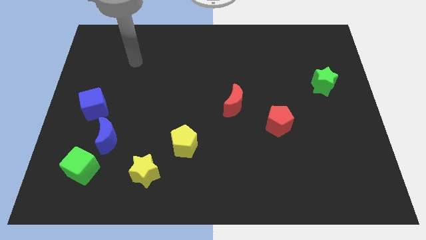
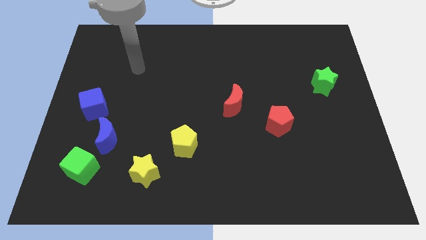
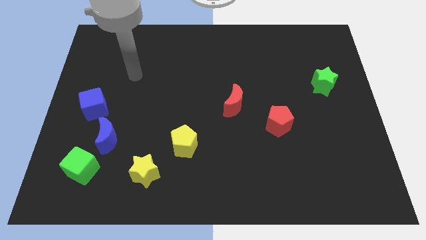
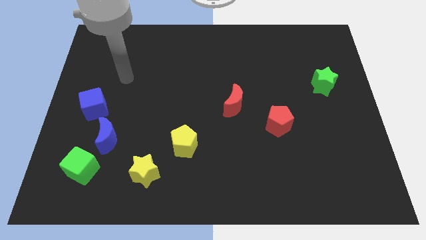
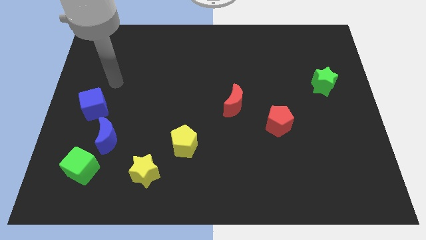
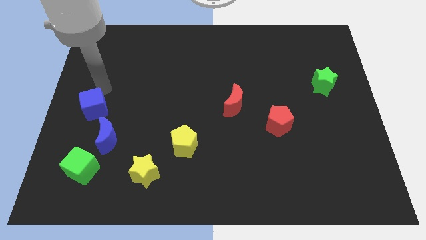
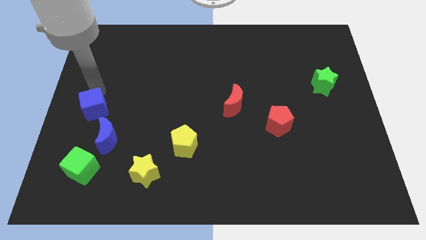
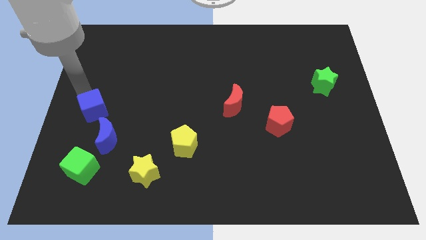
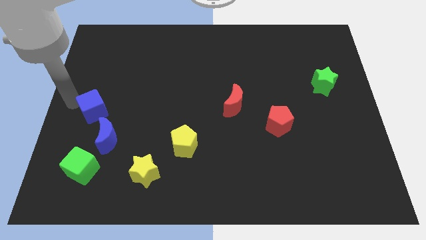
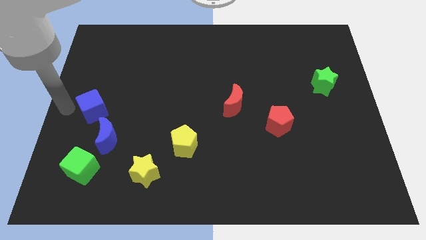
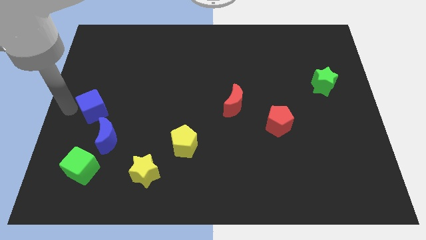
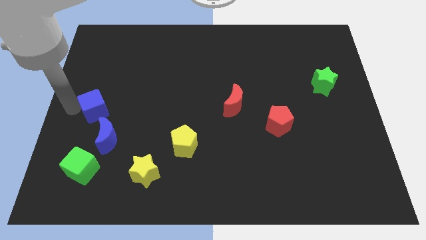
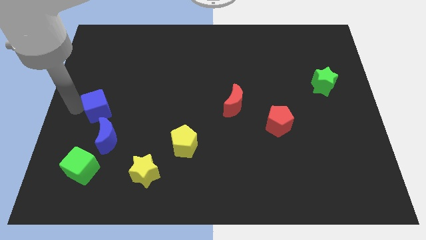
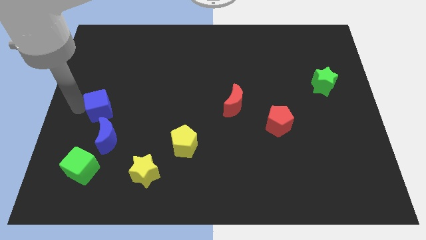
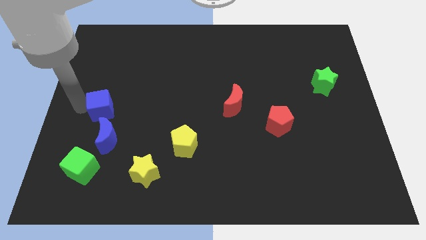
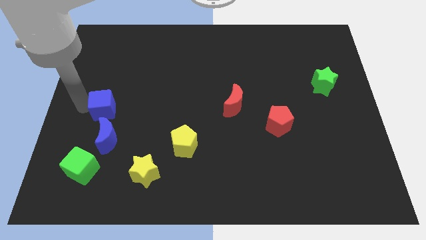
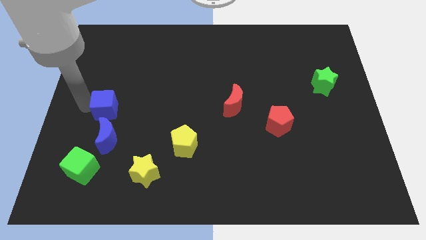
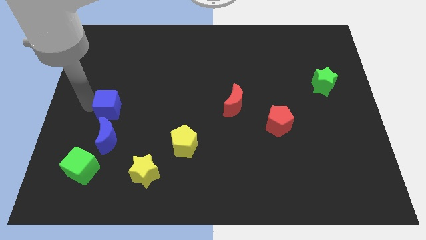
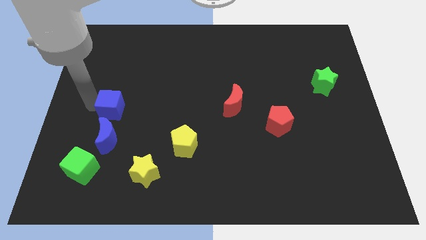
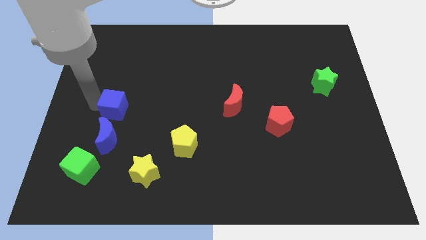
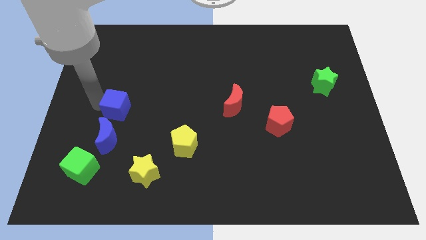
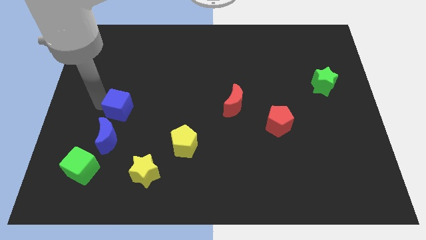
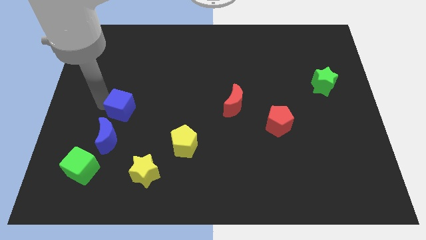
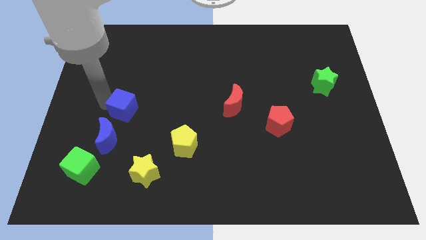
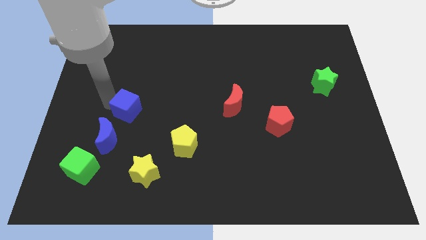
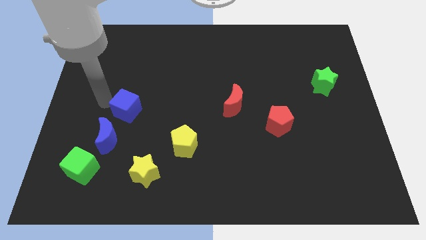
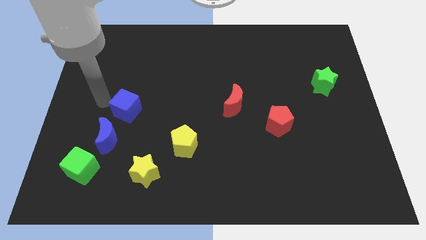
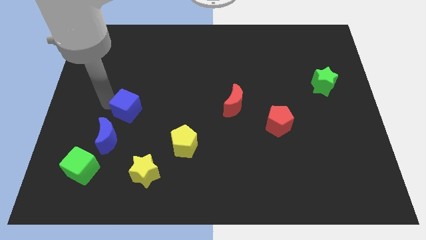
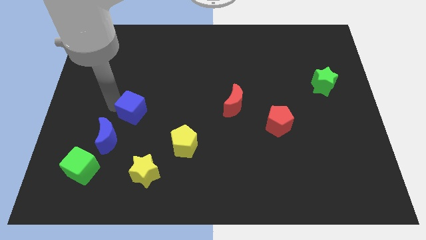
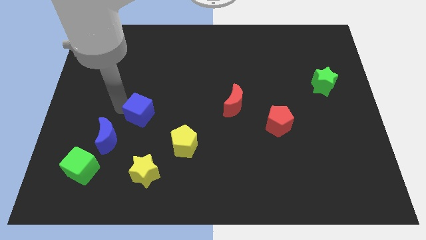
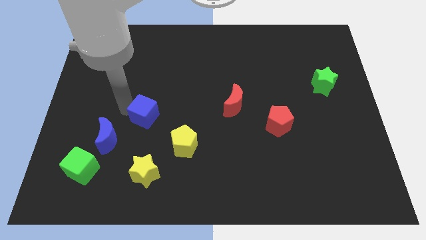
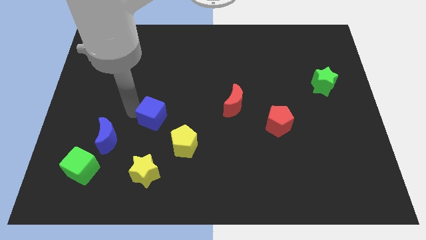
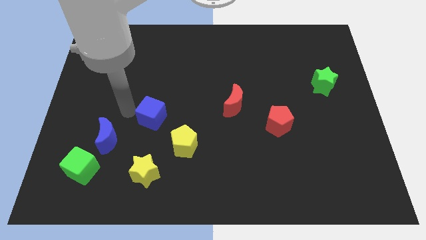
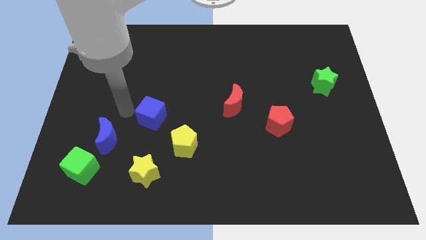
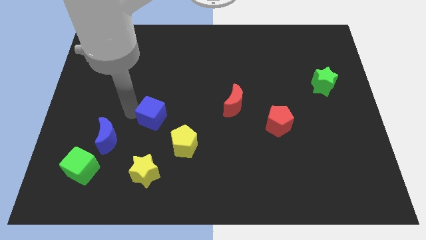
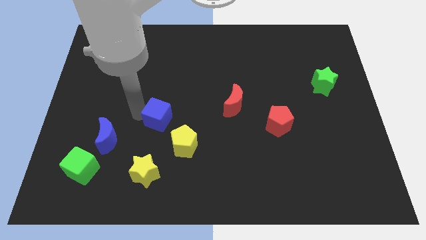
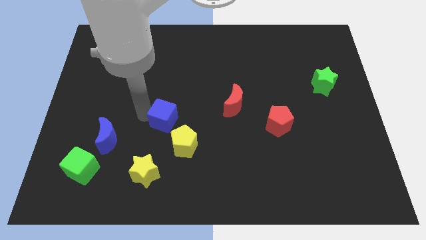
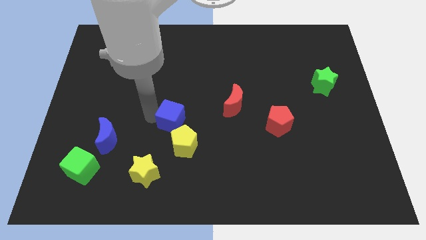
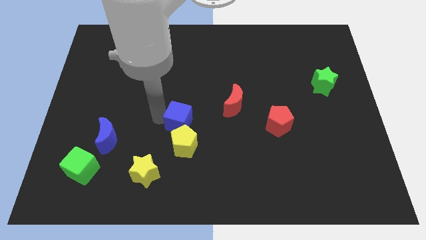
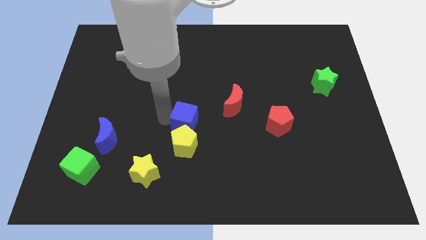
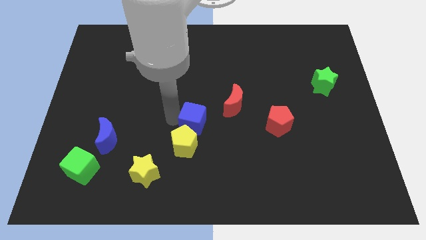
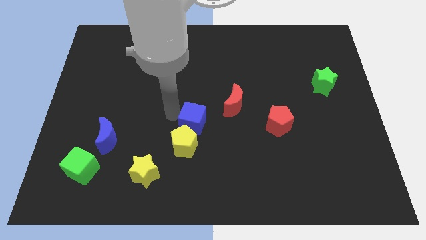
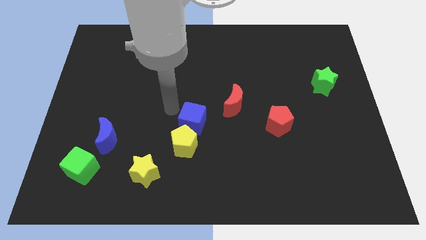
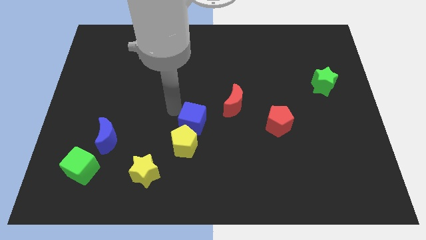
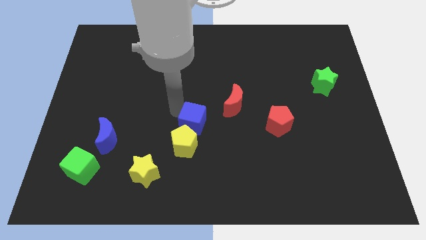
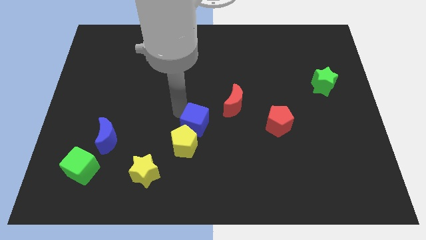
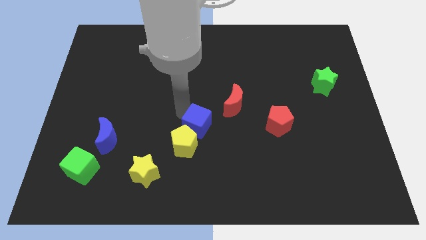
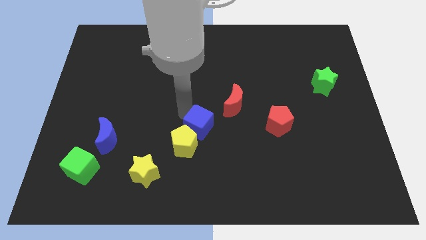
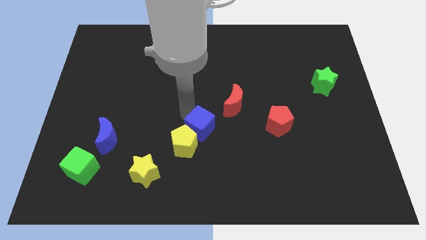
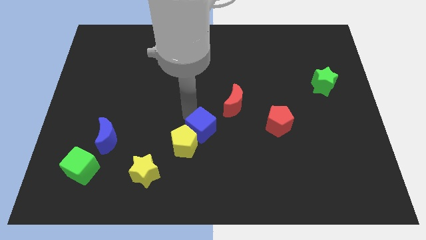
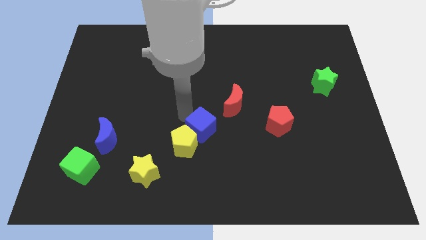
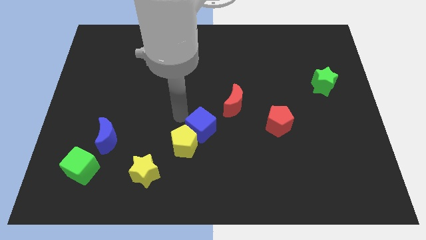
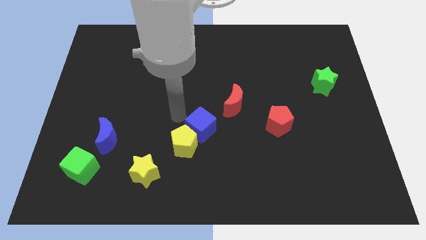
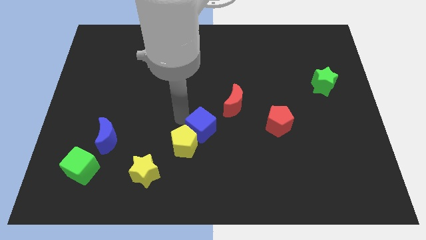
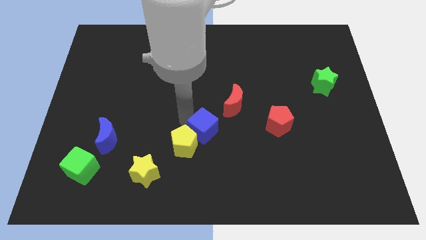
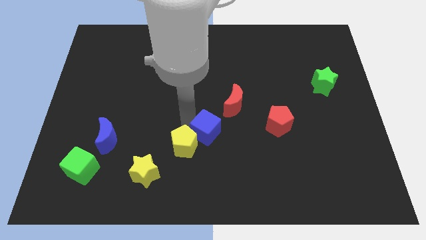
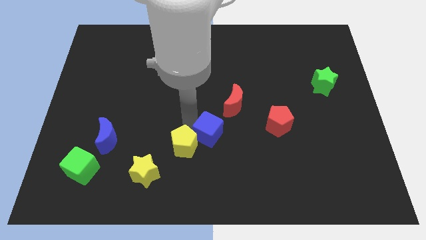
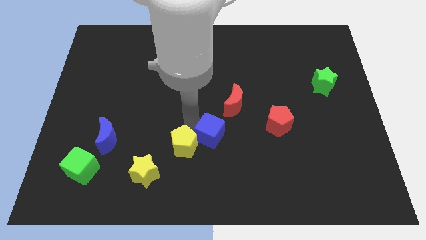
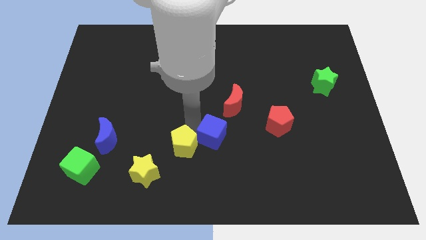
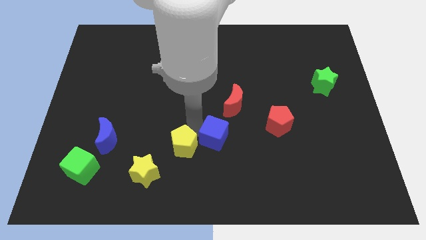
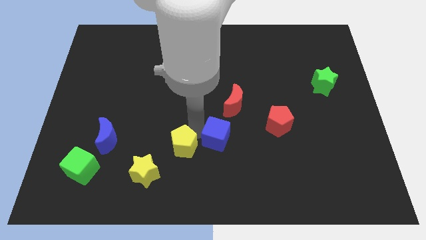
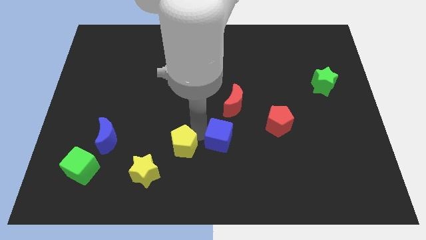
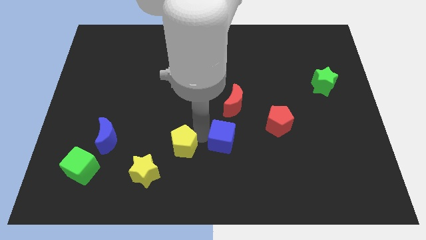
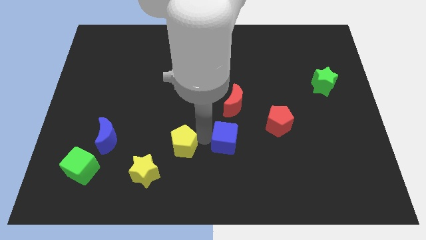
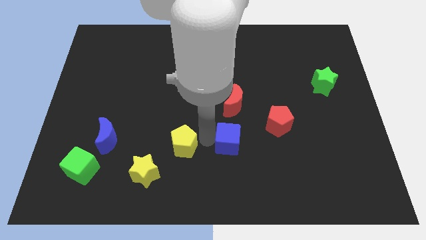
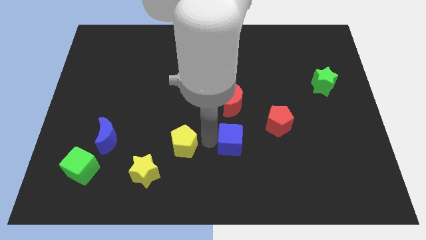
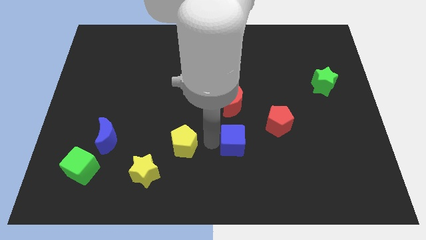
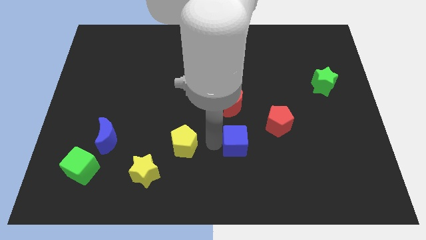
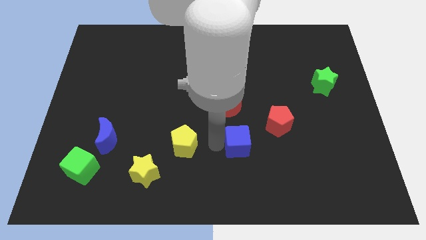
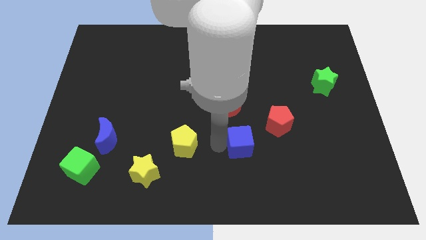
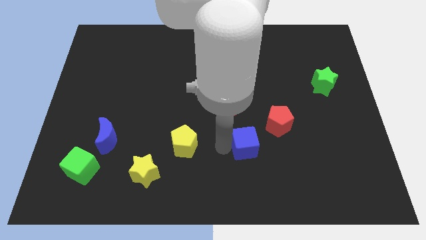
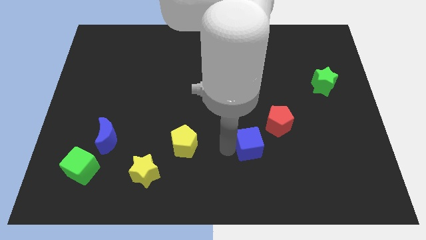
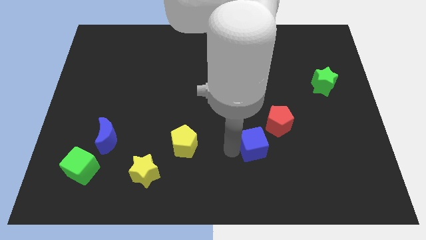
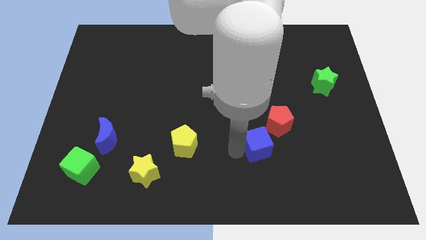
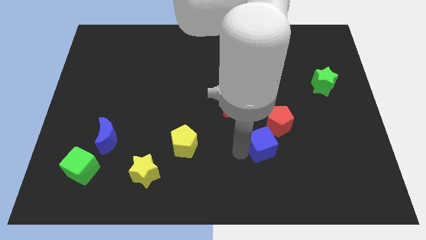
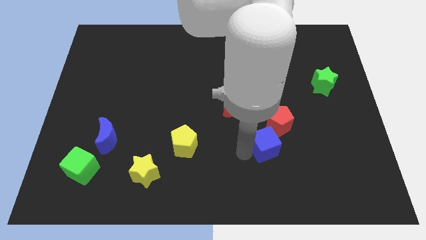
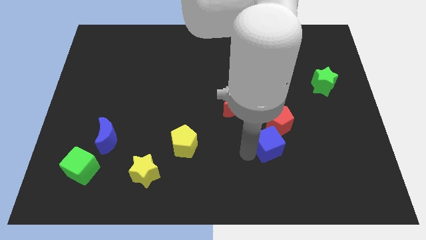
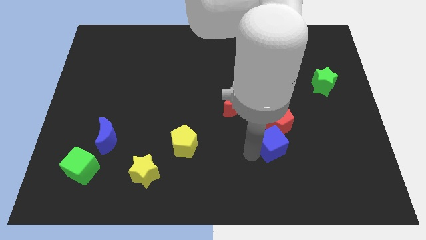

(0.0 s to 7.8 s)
slide the blue cube to the red pentagon
